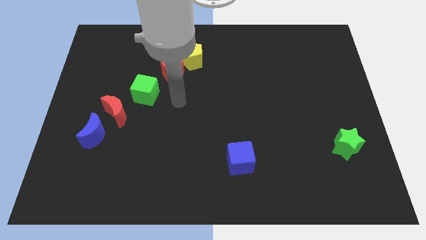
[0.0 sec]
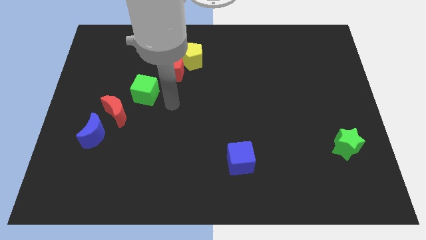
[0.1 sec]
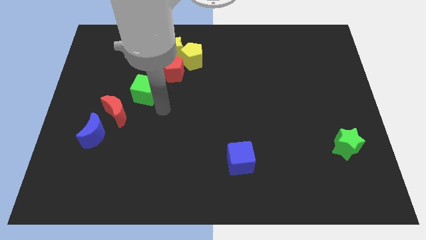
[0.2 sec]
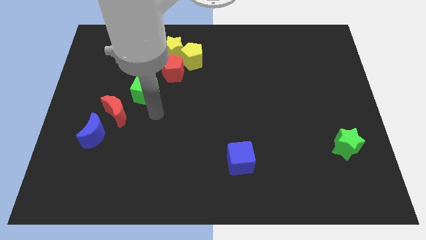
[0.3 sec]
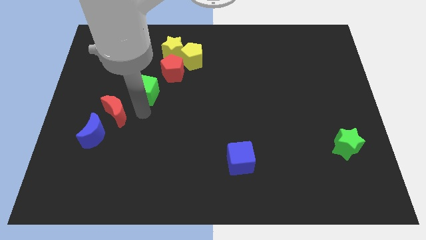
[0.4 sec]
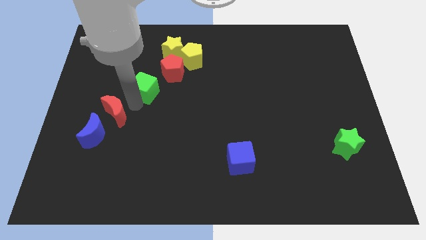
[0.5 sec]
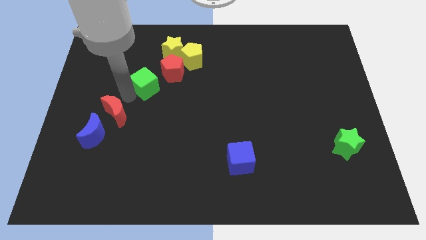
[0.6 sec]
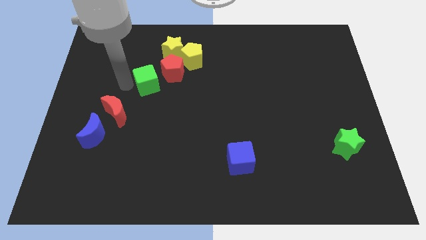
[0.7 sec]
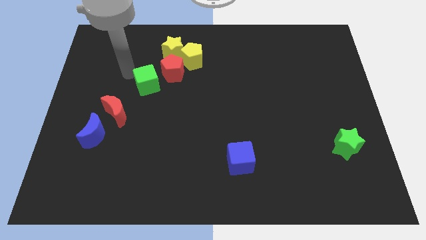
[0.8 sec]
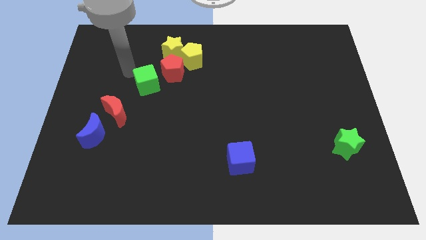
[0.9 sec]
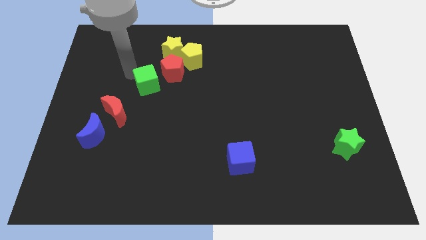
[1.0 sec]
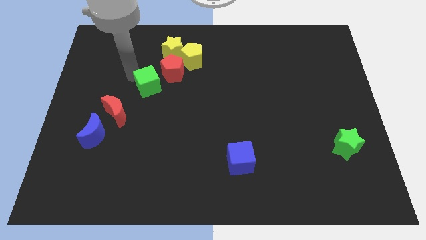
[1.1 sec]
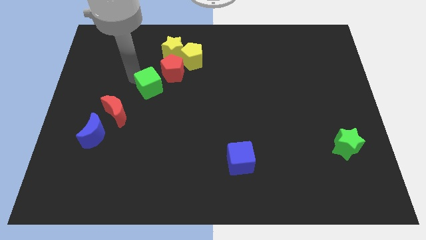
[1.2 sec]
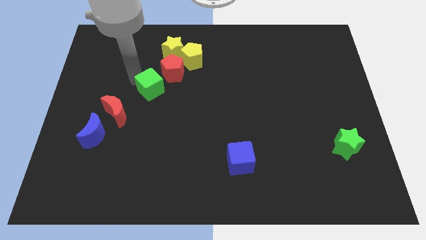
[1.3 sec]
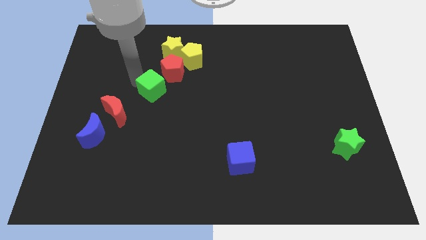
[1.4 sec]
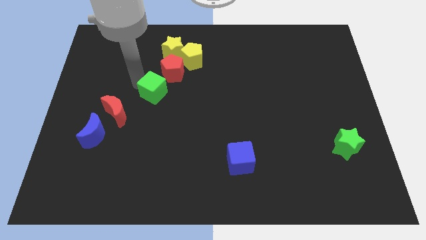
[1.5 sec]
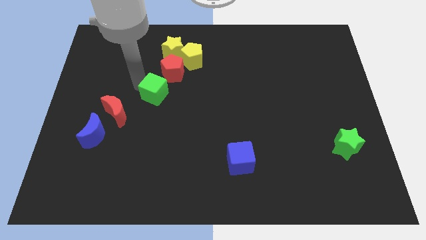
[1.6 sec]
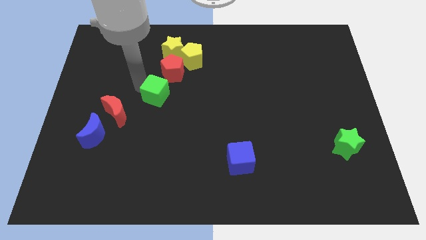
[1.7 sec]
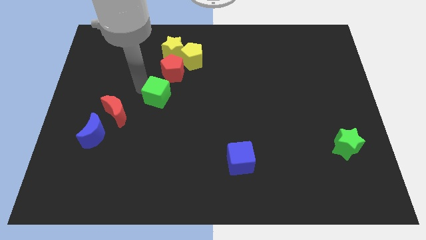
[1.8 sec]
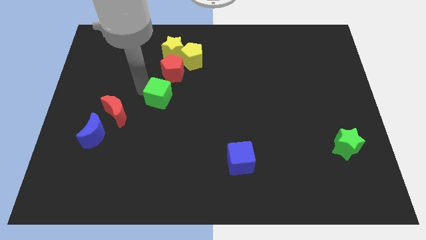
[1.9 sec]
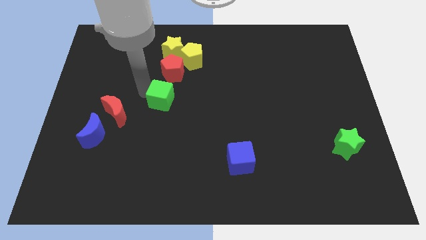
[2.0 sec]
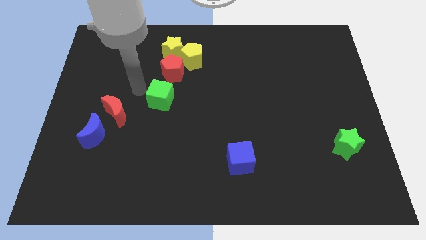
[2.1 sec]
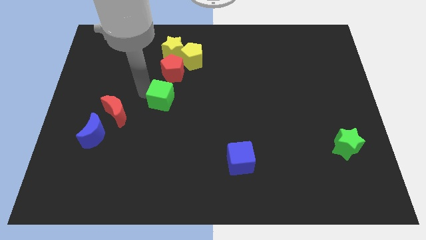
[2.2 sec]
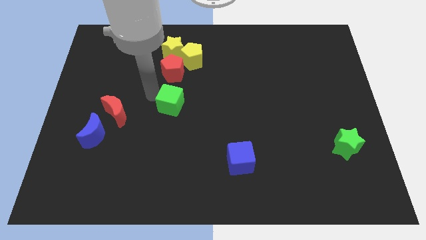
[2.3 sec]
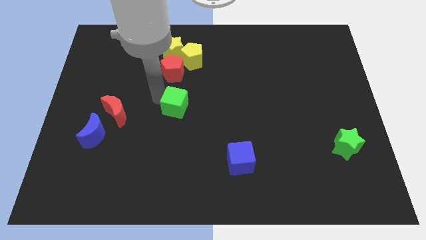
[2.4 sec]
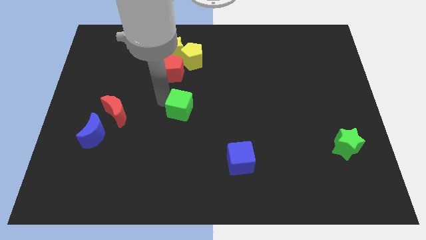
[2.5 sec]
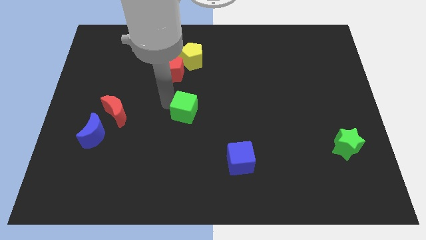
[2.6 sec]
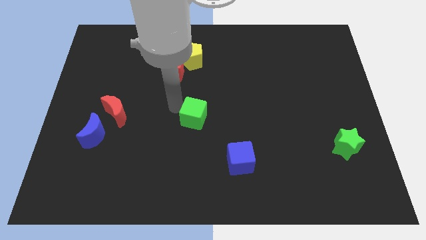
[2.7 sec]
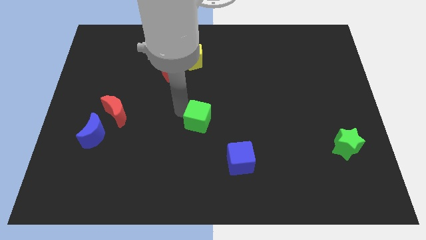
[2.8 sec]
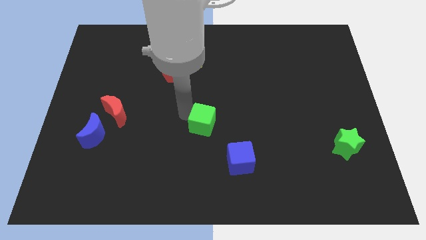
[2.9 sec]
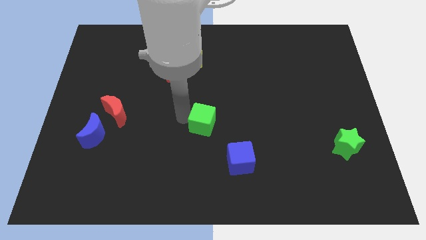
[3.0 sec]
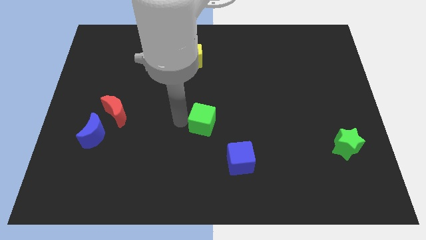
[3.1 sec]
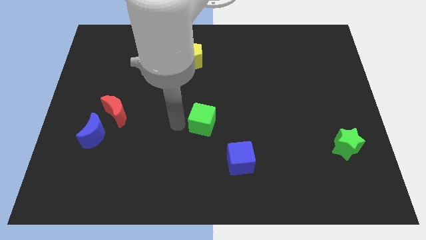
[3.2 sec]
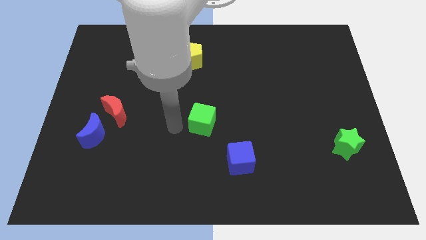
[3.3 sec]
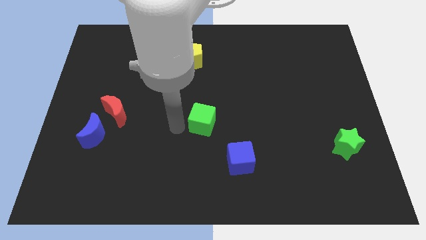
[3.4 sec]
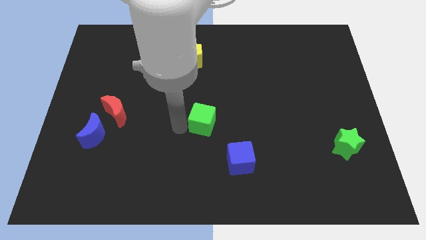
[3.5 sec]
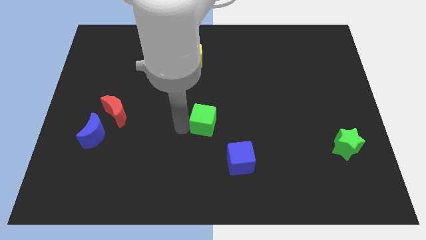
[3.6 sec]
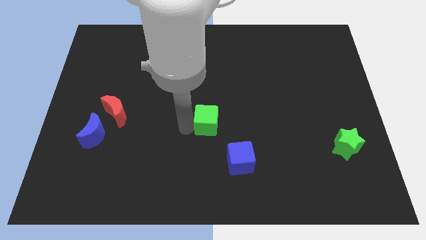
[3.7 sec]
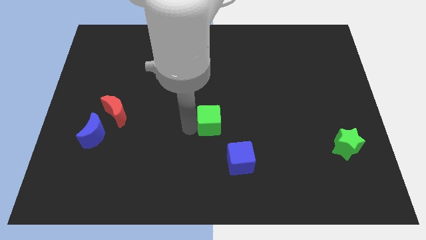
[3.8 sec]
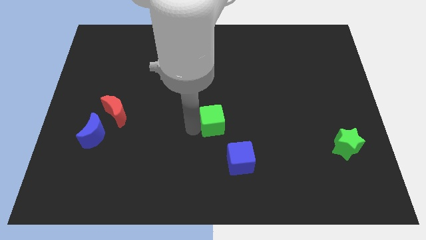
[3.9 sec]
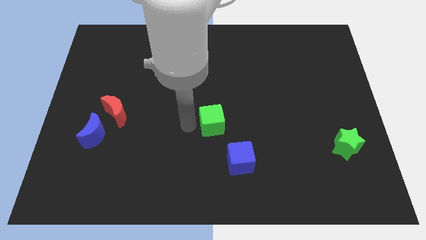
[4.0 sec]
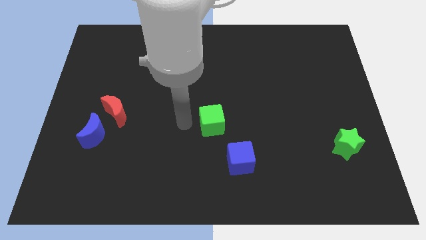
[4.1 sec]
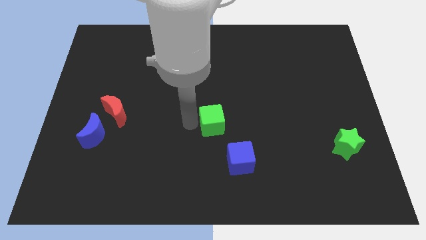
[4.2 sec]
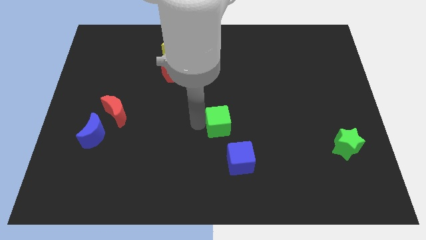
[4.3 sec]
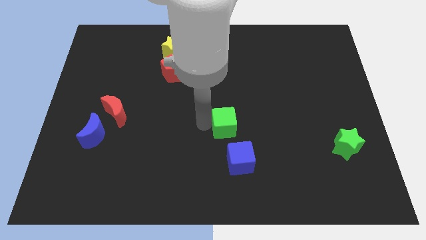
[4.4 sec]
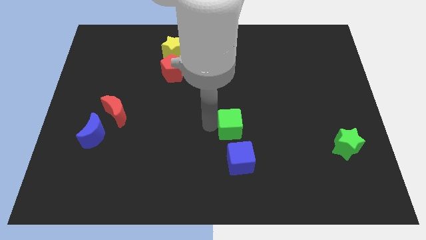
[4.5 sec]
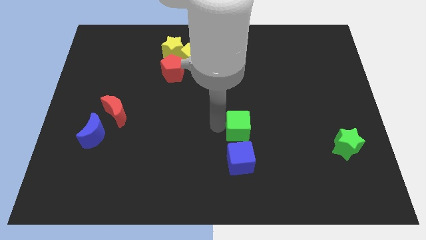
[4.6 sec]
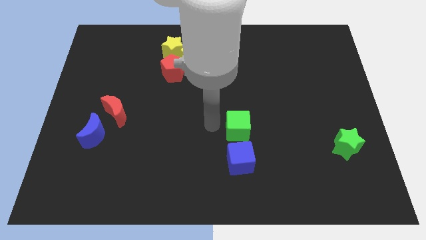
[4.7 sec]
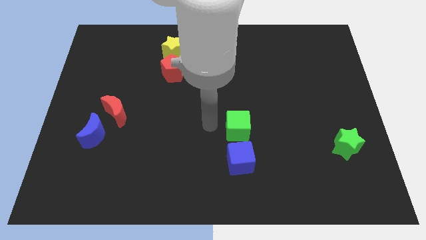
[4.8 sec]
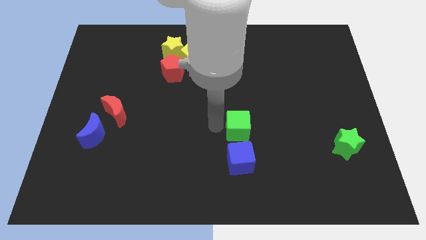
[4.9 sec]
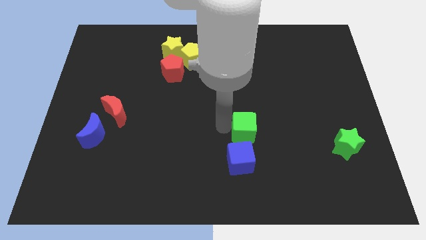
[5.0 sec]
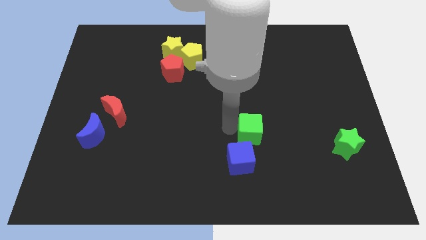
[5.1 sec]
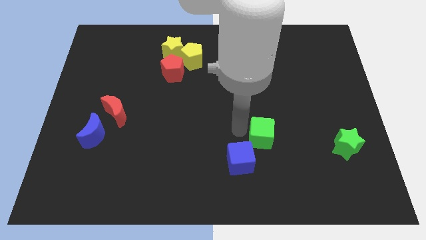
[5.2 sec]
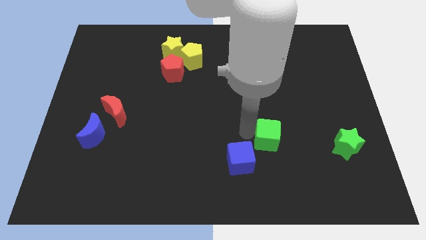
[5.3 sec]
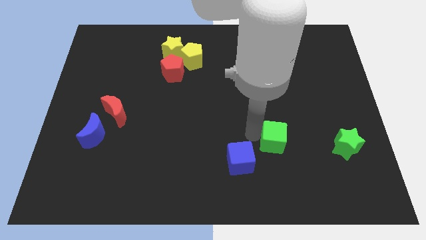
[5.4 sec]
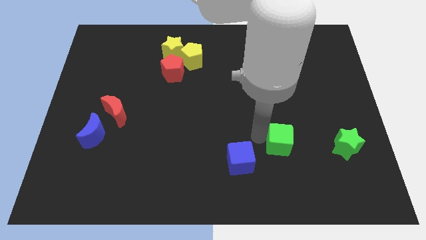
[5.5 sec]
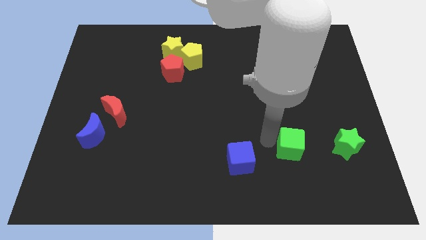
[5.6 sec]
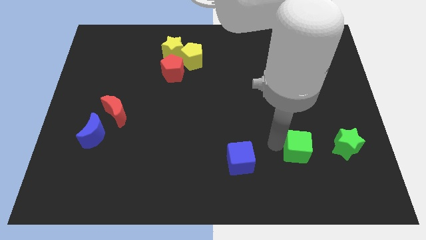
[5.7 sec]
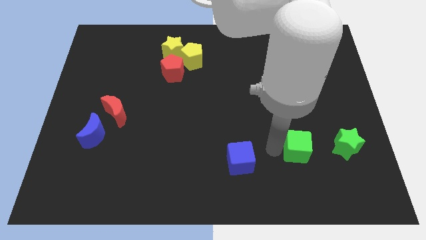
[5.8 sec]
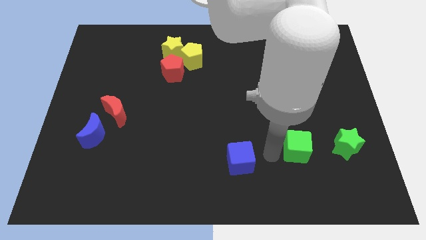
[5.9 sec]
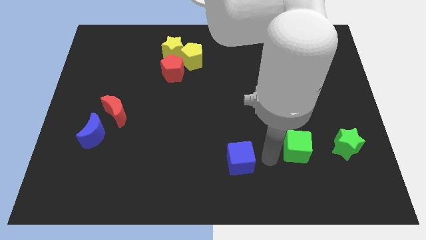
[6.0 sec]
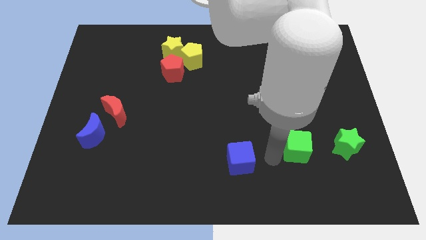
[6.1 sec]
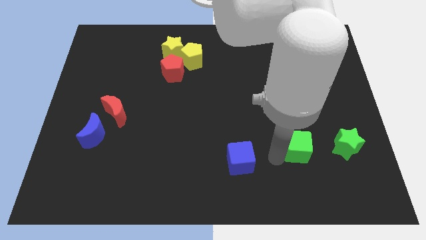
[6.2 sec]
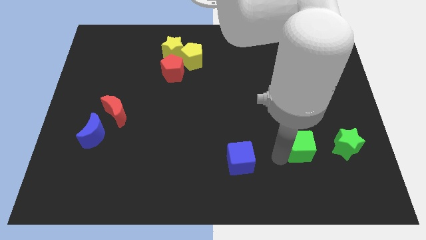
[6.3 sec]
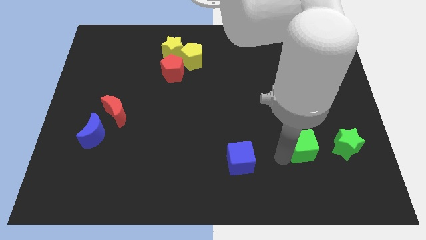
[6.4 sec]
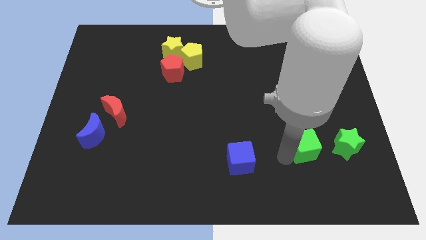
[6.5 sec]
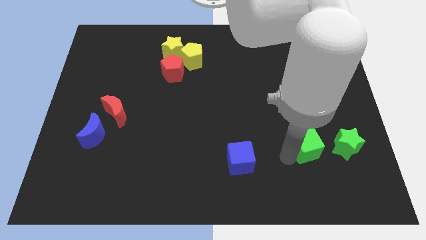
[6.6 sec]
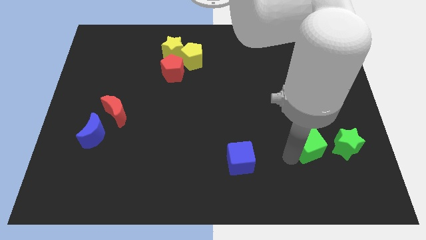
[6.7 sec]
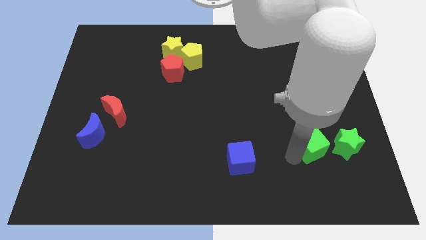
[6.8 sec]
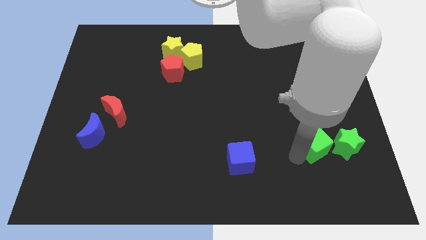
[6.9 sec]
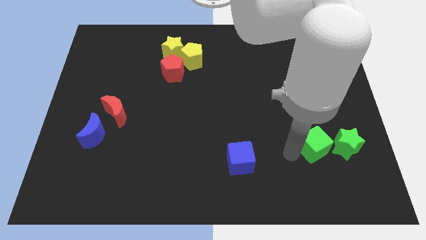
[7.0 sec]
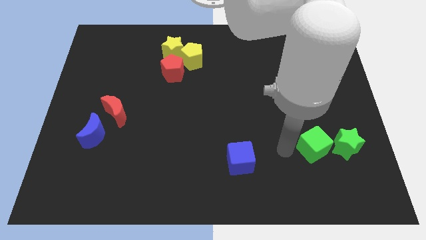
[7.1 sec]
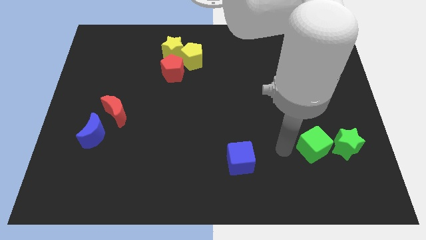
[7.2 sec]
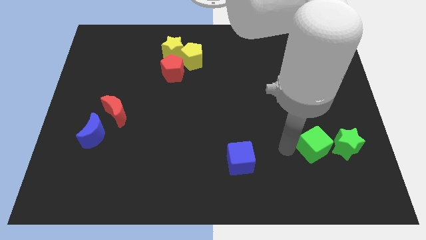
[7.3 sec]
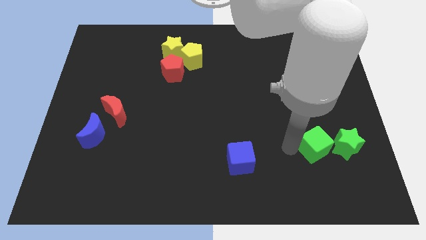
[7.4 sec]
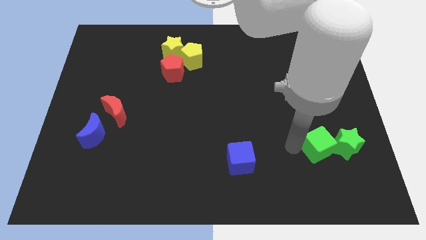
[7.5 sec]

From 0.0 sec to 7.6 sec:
push the green cube to the green star

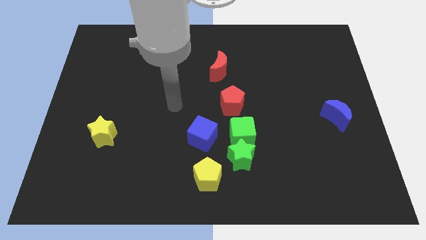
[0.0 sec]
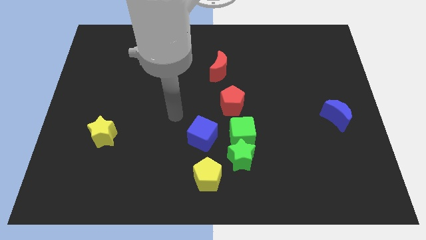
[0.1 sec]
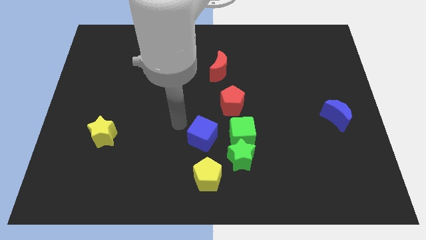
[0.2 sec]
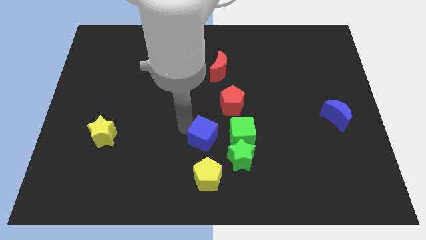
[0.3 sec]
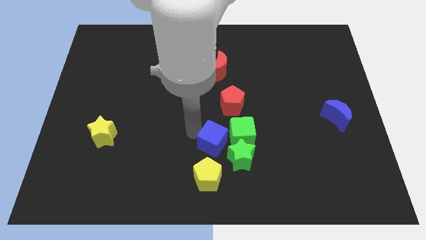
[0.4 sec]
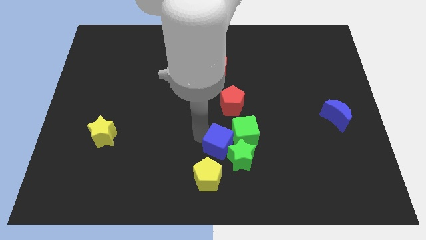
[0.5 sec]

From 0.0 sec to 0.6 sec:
put the blue cube towards the green star
